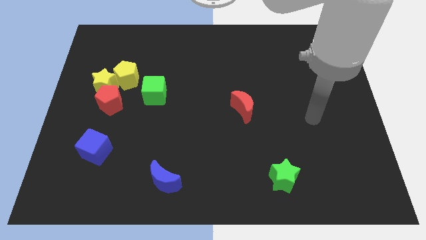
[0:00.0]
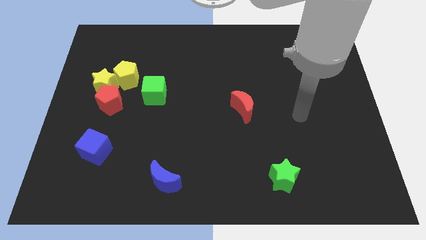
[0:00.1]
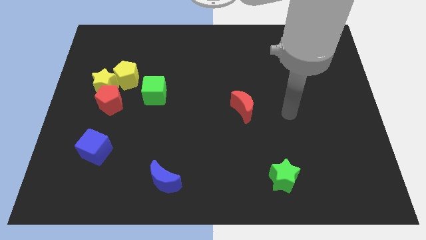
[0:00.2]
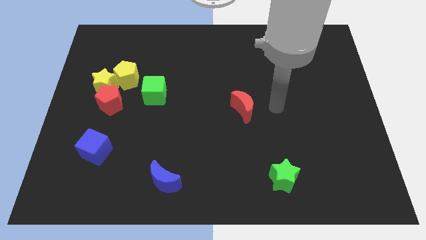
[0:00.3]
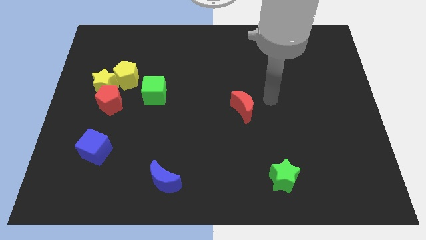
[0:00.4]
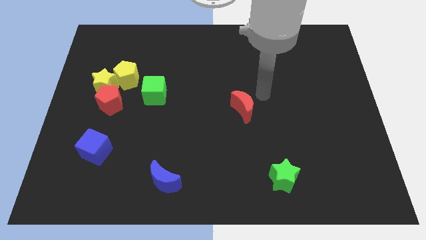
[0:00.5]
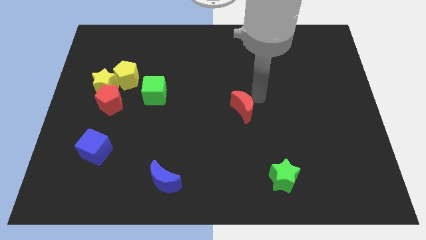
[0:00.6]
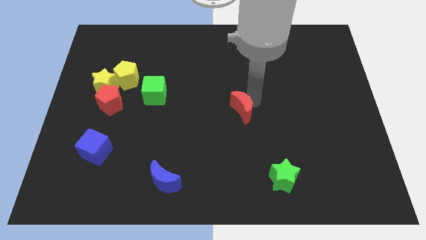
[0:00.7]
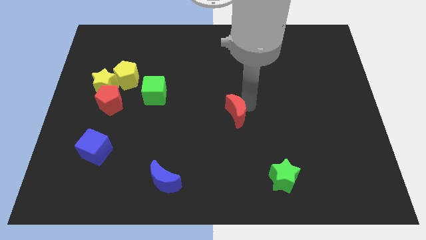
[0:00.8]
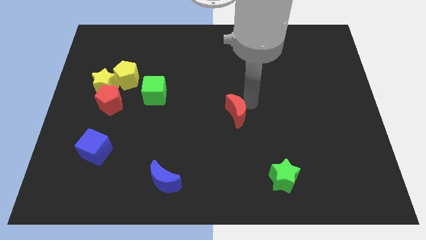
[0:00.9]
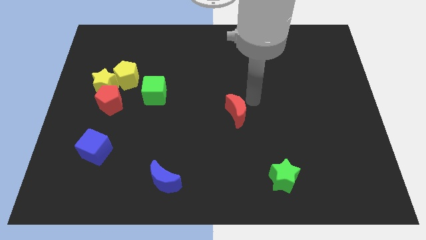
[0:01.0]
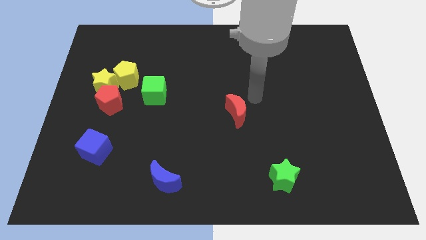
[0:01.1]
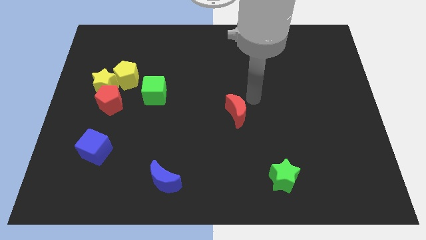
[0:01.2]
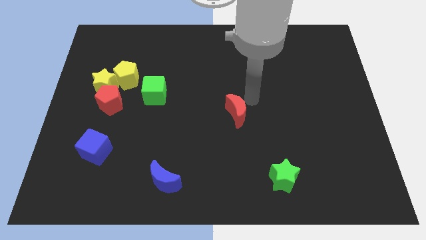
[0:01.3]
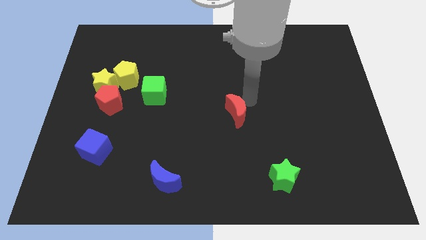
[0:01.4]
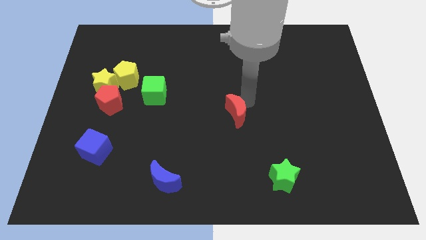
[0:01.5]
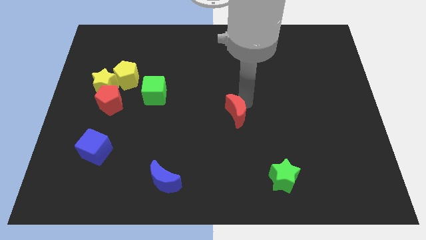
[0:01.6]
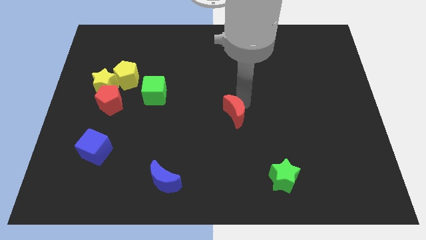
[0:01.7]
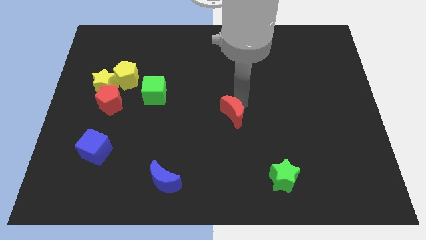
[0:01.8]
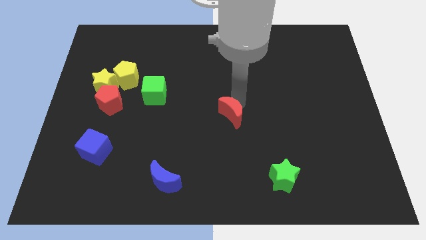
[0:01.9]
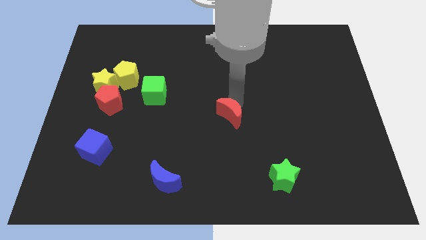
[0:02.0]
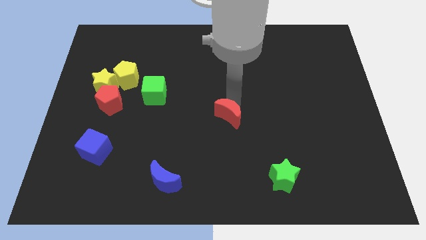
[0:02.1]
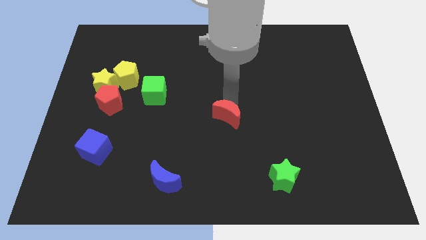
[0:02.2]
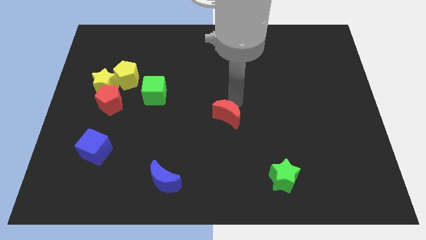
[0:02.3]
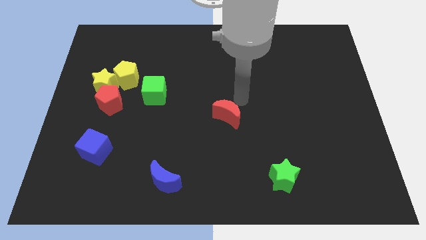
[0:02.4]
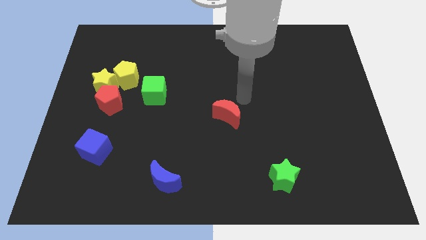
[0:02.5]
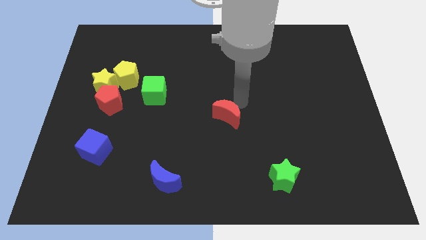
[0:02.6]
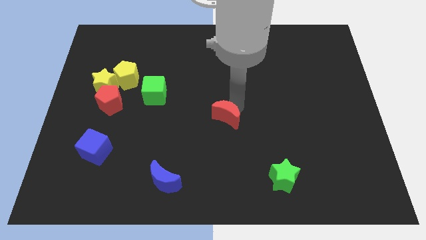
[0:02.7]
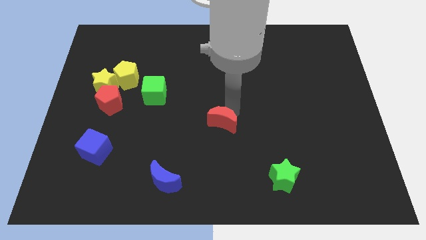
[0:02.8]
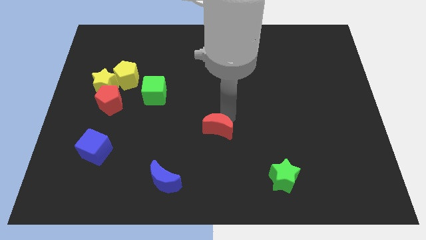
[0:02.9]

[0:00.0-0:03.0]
slightly slide the red moon diagonally downwards and to the left

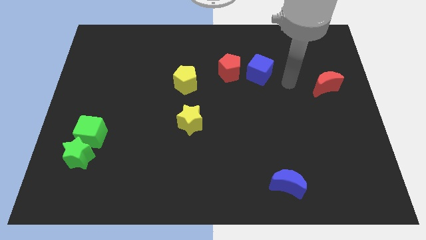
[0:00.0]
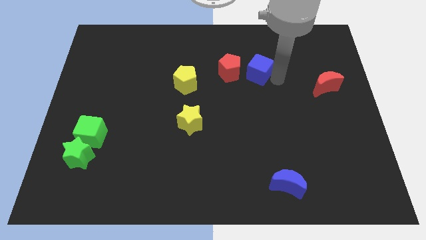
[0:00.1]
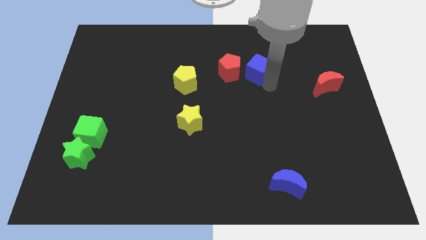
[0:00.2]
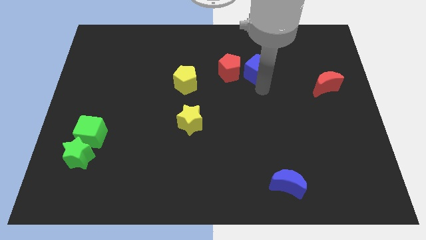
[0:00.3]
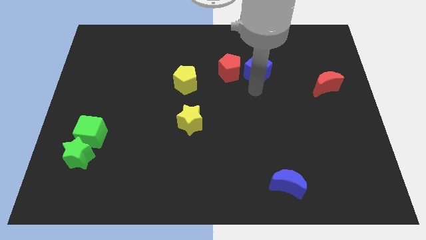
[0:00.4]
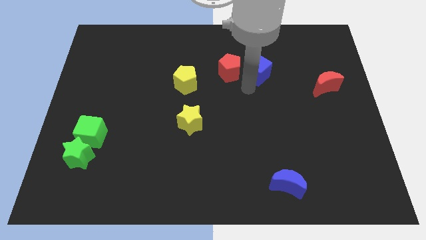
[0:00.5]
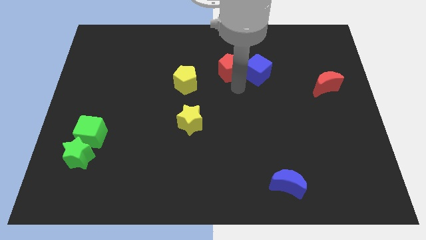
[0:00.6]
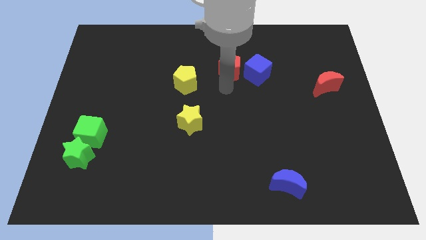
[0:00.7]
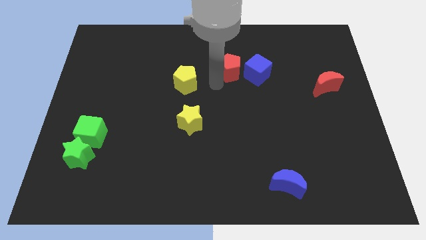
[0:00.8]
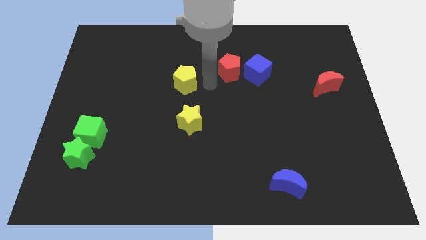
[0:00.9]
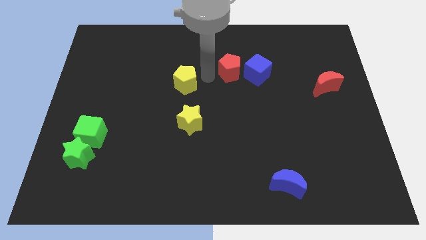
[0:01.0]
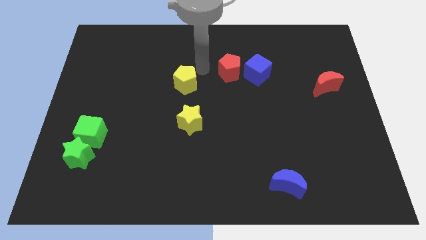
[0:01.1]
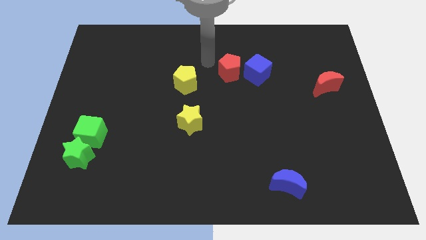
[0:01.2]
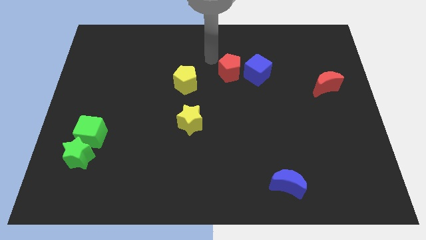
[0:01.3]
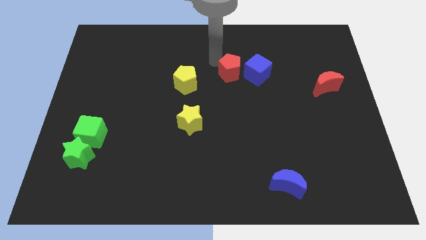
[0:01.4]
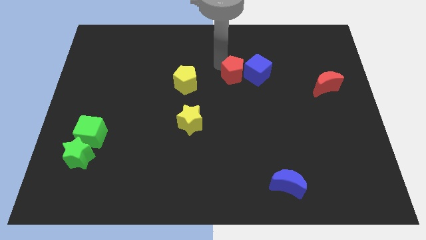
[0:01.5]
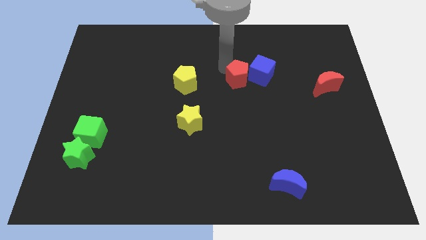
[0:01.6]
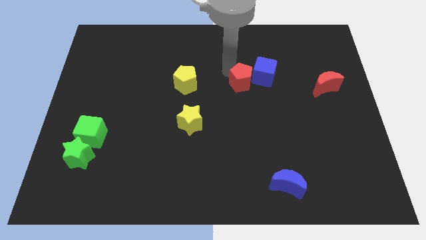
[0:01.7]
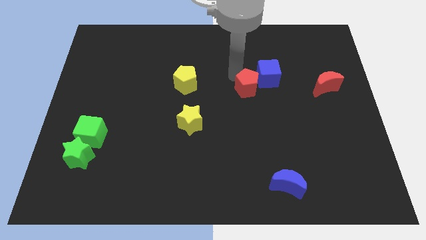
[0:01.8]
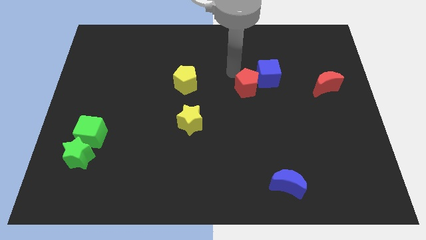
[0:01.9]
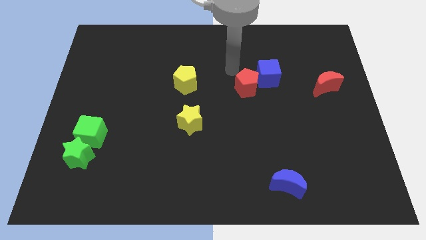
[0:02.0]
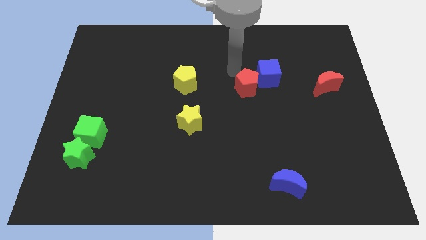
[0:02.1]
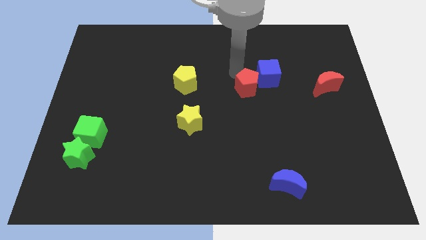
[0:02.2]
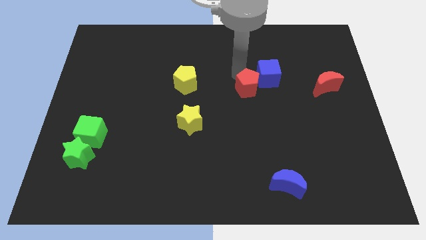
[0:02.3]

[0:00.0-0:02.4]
push the red pentagon down and then to the right a little

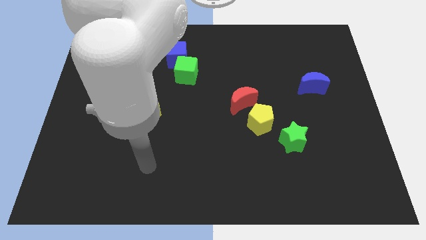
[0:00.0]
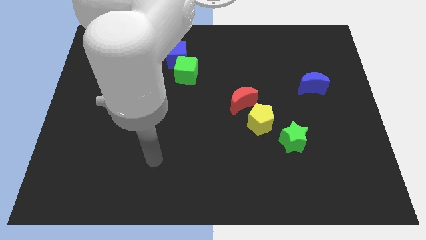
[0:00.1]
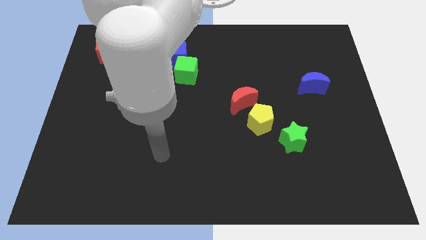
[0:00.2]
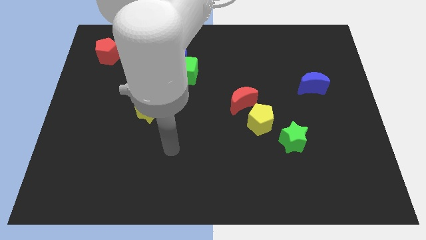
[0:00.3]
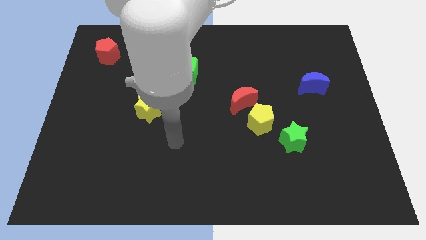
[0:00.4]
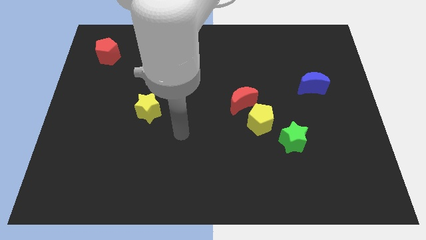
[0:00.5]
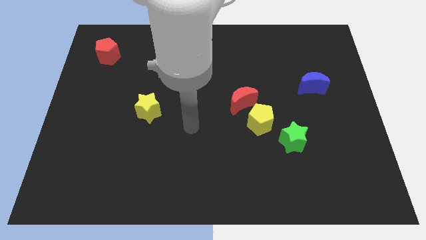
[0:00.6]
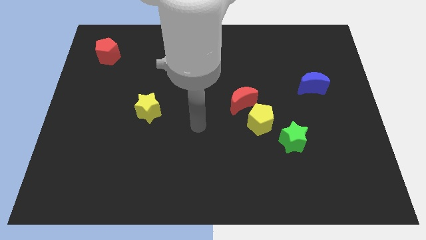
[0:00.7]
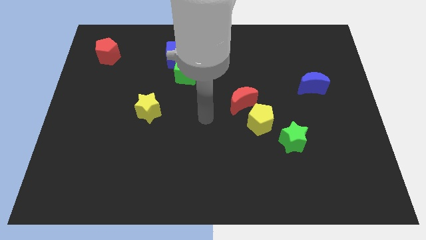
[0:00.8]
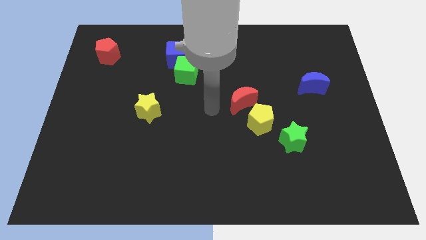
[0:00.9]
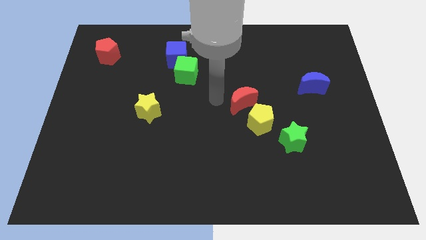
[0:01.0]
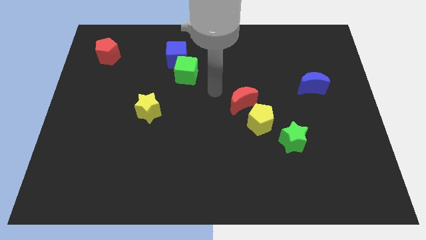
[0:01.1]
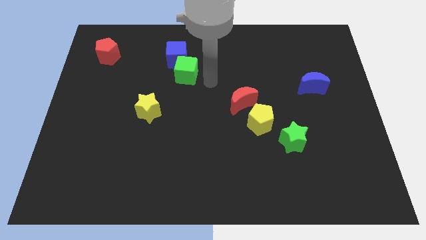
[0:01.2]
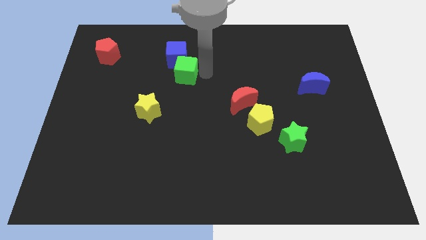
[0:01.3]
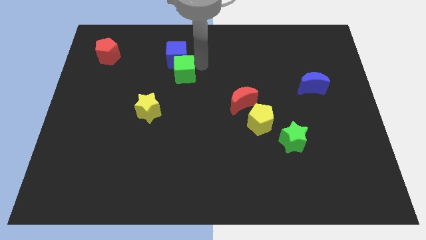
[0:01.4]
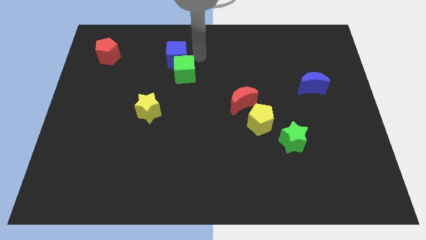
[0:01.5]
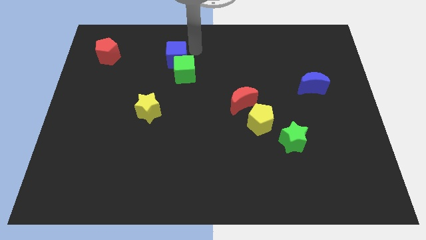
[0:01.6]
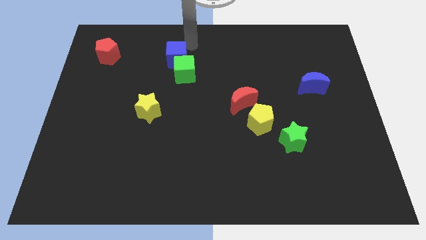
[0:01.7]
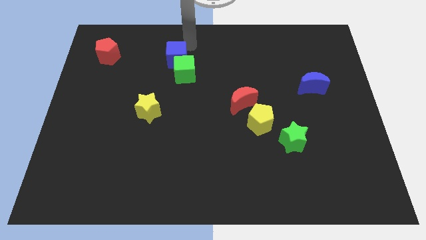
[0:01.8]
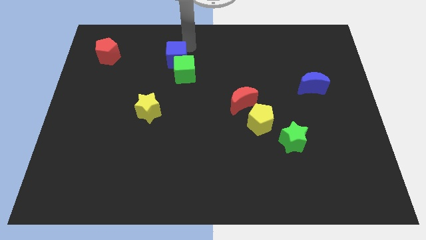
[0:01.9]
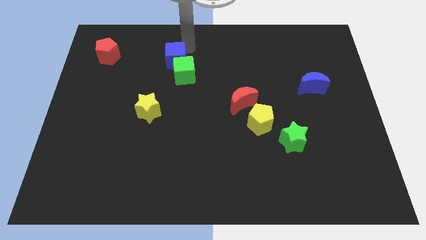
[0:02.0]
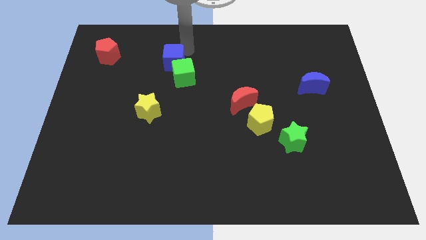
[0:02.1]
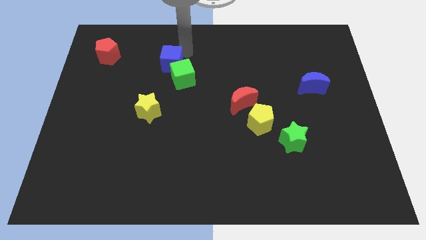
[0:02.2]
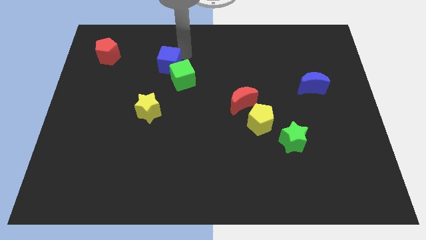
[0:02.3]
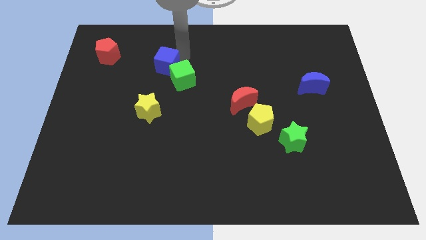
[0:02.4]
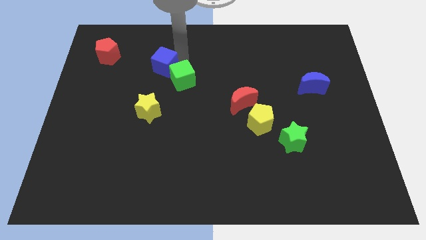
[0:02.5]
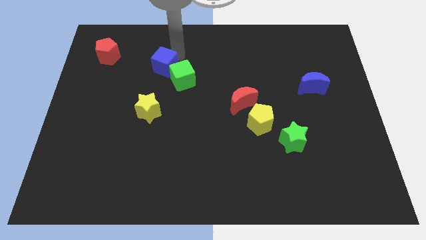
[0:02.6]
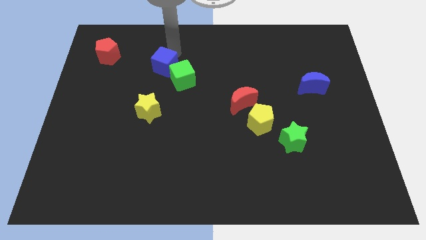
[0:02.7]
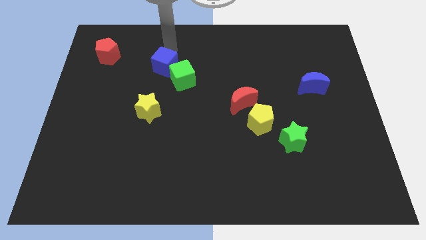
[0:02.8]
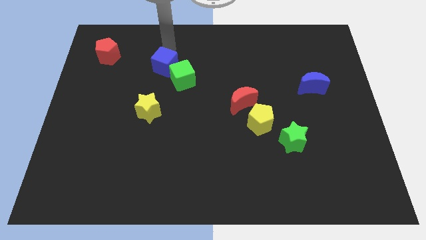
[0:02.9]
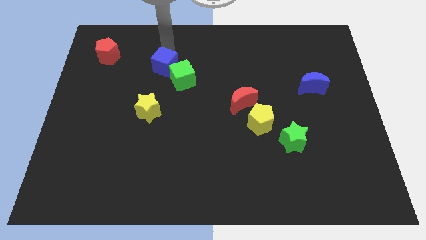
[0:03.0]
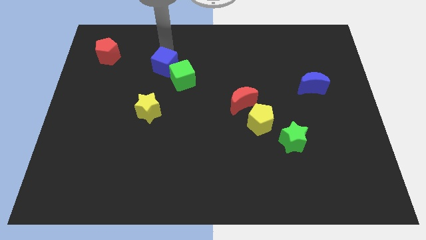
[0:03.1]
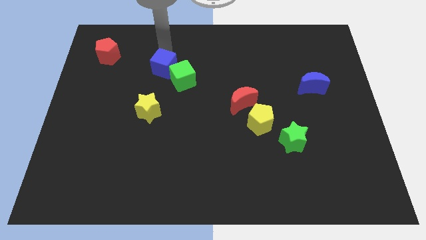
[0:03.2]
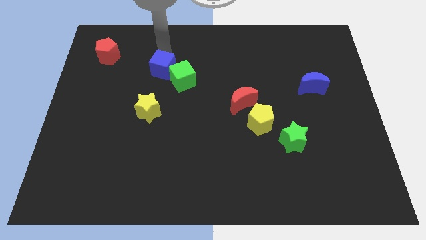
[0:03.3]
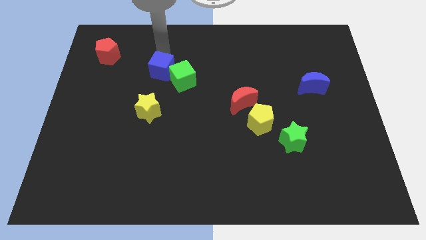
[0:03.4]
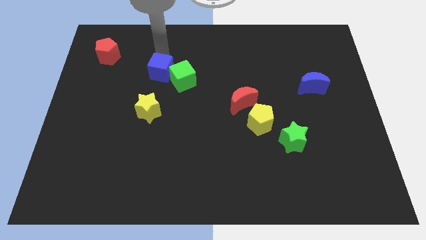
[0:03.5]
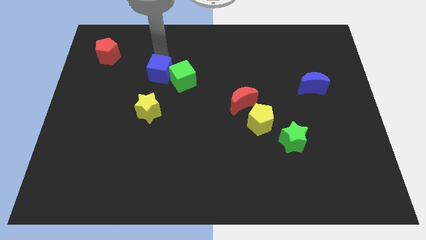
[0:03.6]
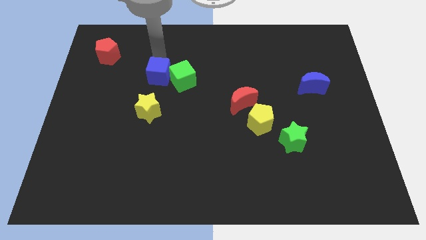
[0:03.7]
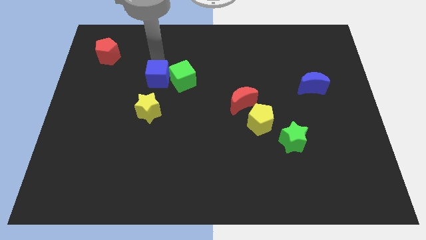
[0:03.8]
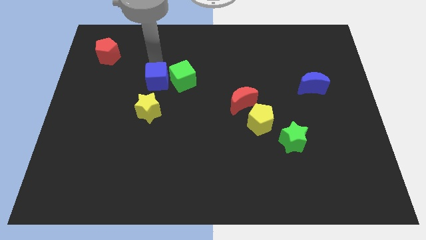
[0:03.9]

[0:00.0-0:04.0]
slightly push the blue cube down
